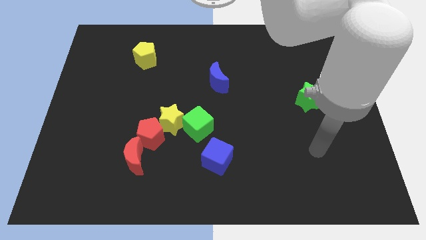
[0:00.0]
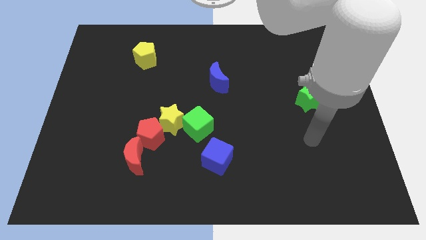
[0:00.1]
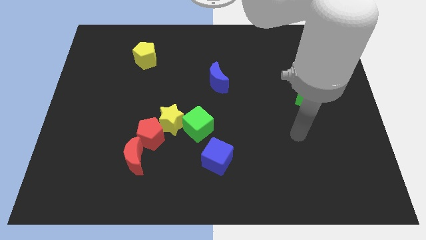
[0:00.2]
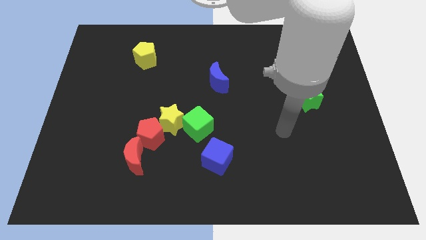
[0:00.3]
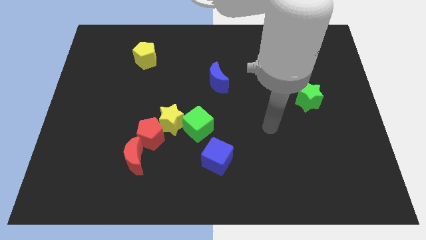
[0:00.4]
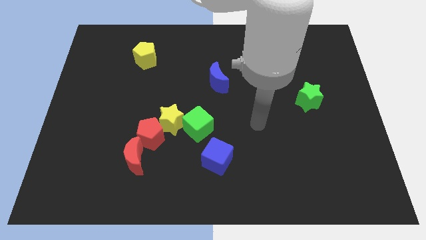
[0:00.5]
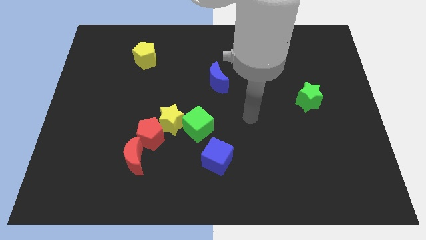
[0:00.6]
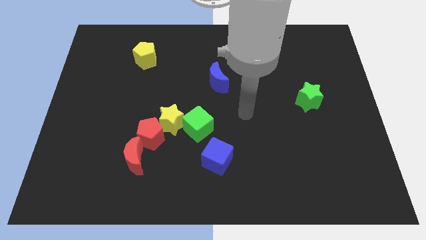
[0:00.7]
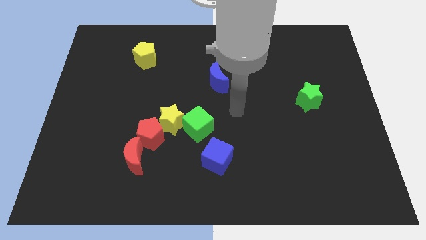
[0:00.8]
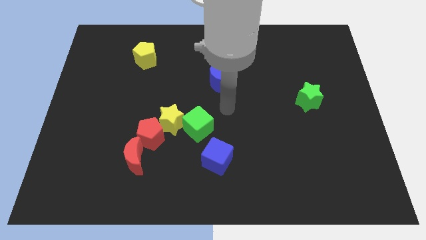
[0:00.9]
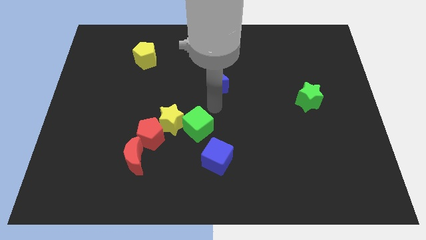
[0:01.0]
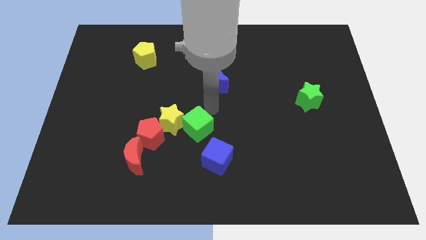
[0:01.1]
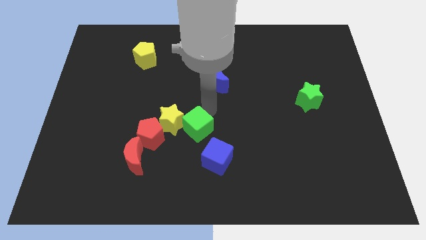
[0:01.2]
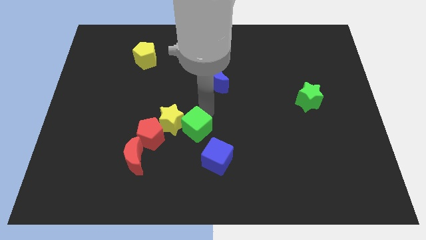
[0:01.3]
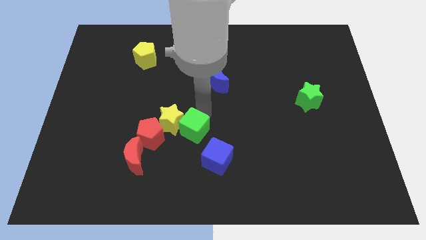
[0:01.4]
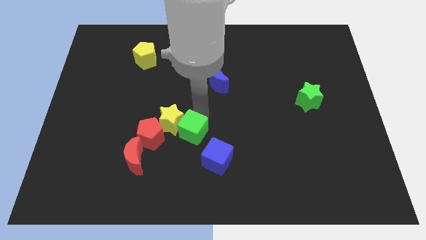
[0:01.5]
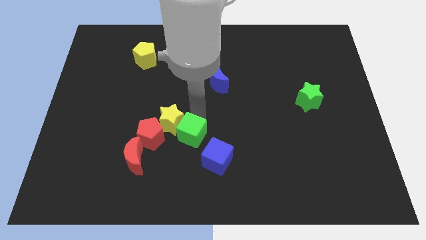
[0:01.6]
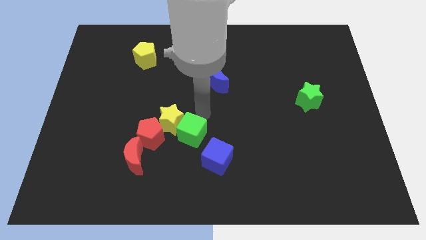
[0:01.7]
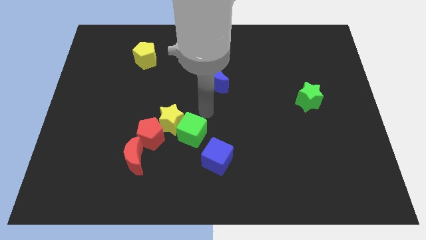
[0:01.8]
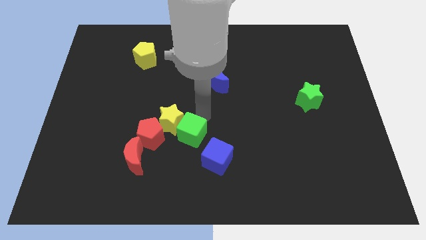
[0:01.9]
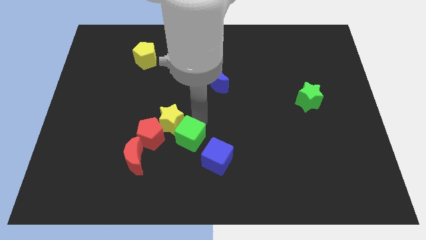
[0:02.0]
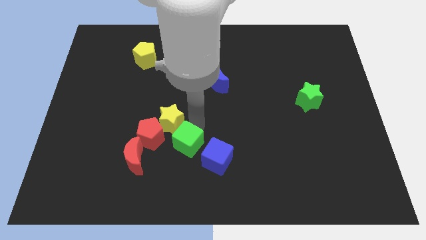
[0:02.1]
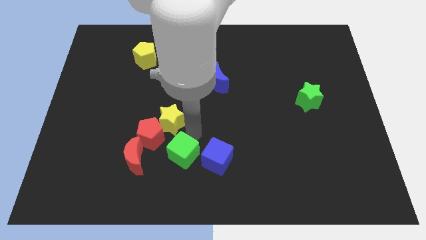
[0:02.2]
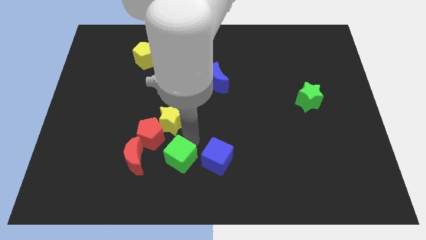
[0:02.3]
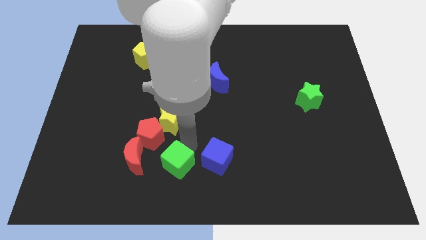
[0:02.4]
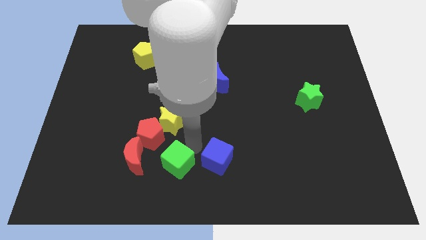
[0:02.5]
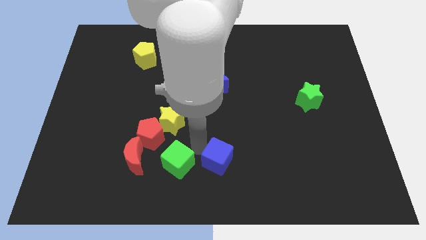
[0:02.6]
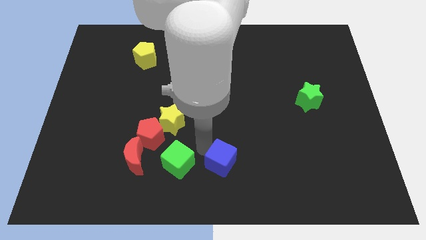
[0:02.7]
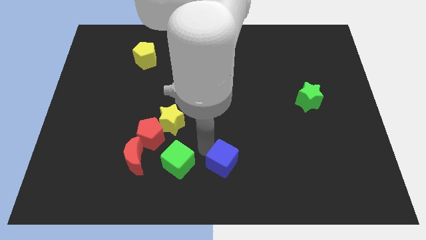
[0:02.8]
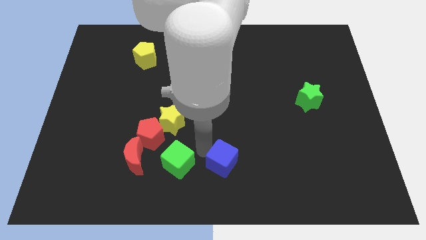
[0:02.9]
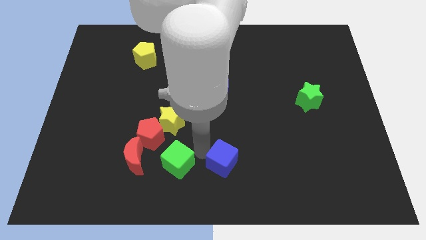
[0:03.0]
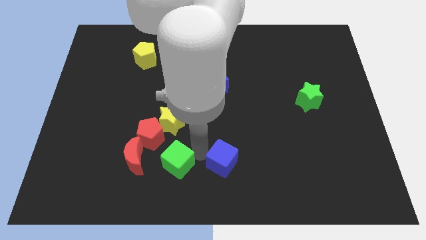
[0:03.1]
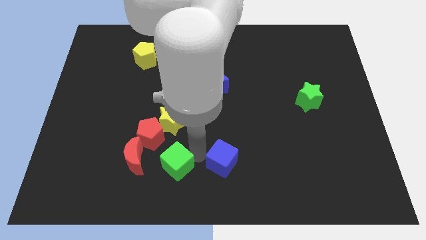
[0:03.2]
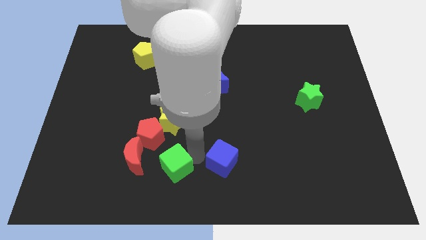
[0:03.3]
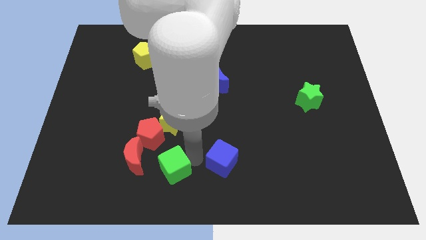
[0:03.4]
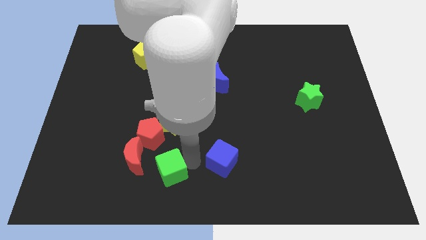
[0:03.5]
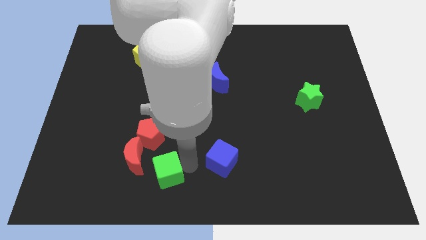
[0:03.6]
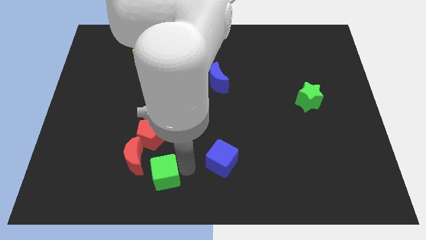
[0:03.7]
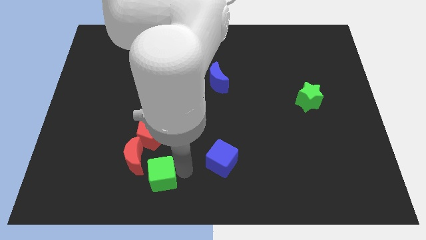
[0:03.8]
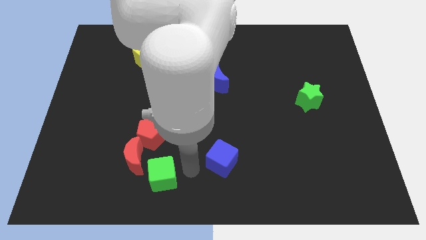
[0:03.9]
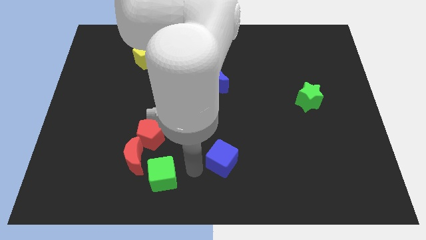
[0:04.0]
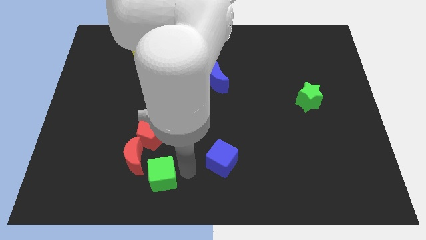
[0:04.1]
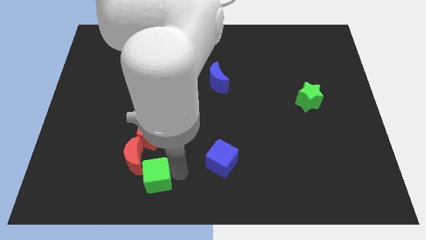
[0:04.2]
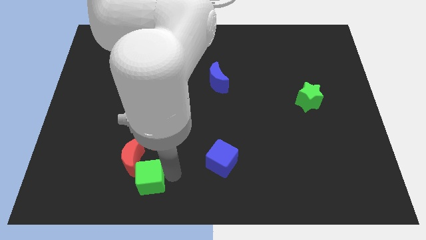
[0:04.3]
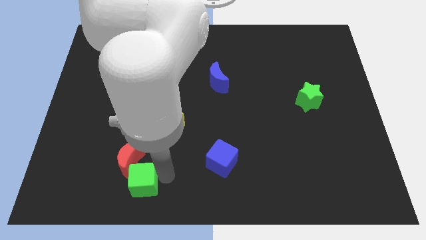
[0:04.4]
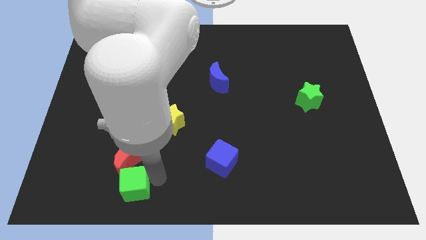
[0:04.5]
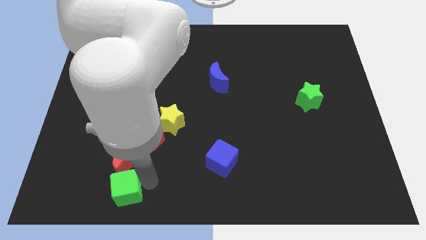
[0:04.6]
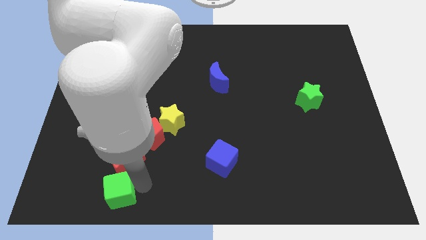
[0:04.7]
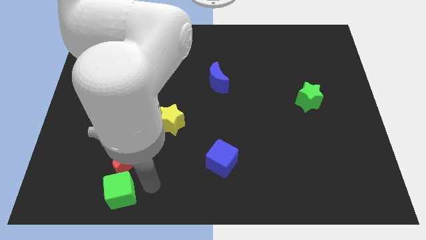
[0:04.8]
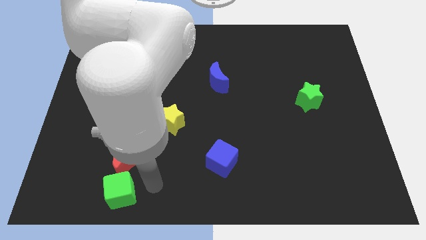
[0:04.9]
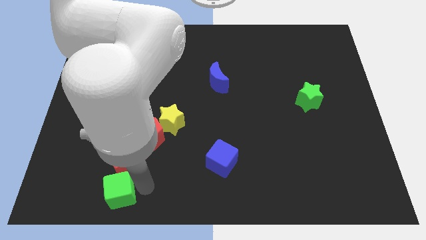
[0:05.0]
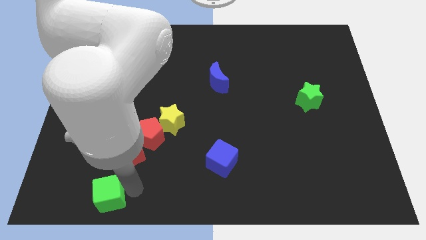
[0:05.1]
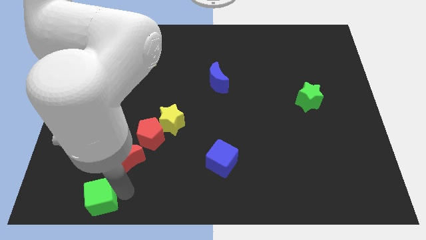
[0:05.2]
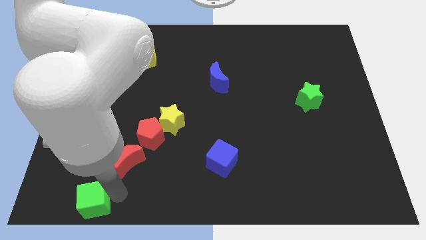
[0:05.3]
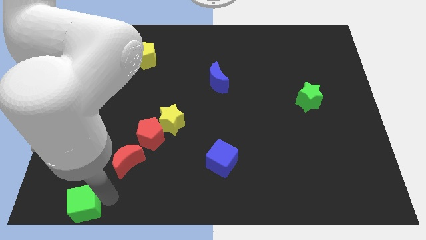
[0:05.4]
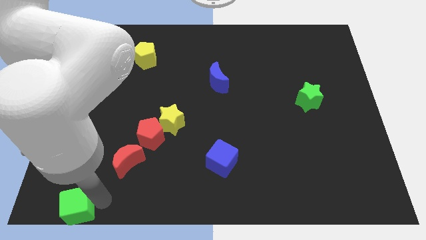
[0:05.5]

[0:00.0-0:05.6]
put the green cube to the bottom left

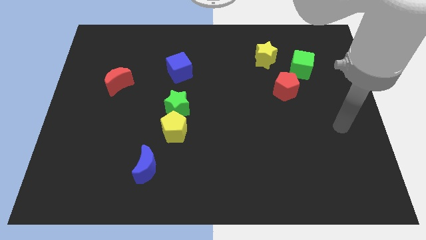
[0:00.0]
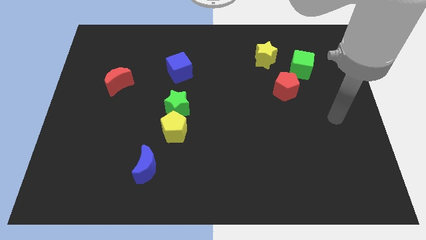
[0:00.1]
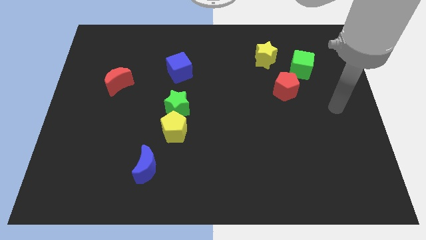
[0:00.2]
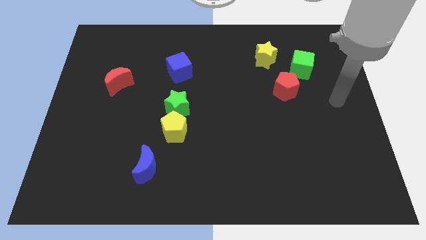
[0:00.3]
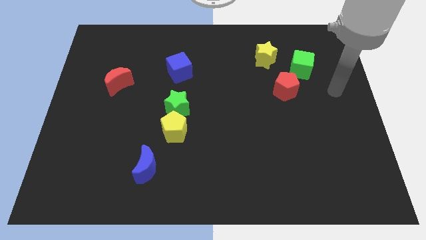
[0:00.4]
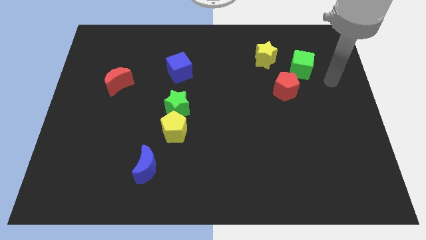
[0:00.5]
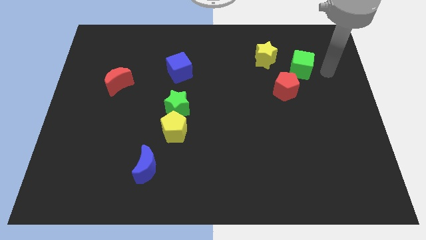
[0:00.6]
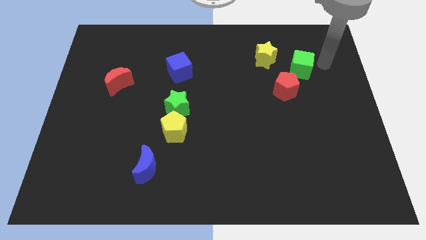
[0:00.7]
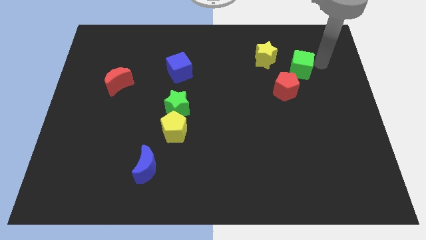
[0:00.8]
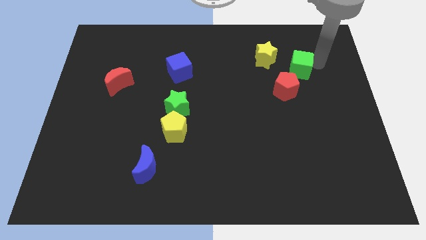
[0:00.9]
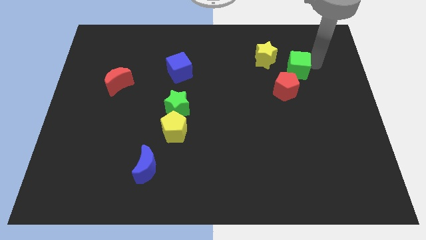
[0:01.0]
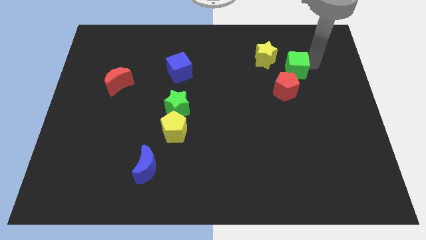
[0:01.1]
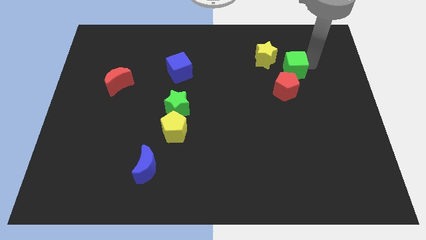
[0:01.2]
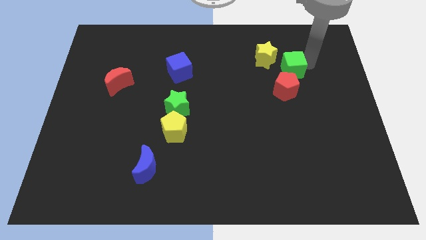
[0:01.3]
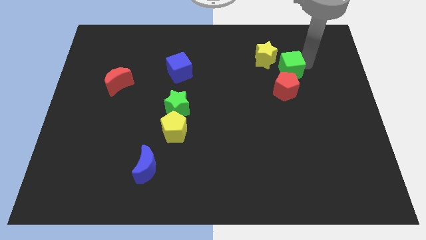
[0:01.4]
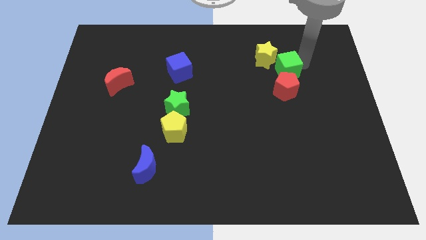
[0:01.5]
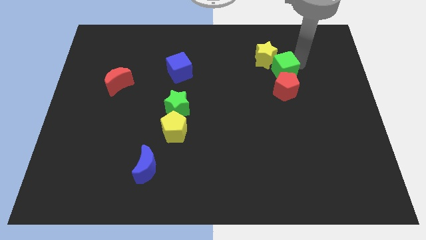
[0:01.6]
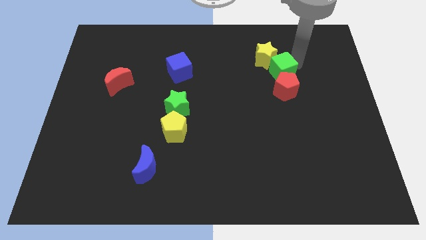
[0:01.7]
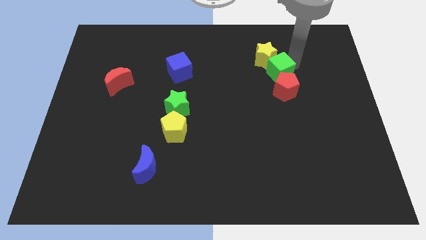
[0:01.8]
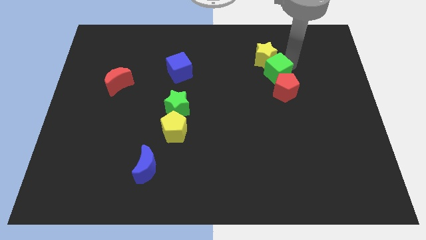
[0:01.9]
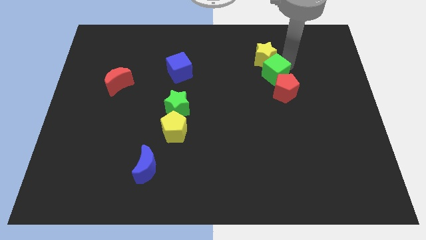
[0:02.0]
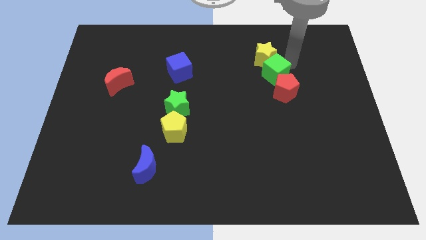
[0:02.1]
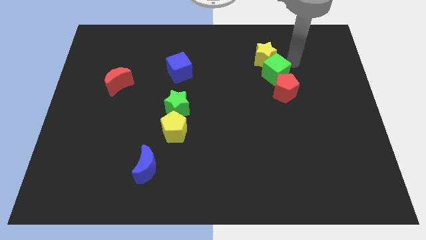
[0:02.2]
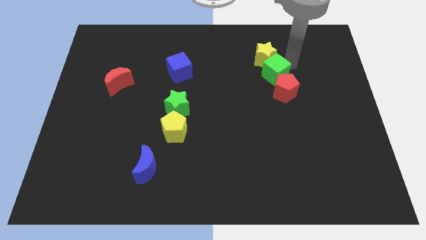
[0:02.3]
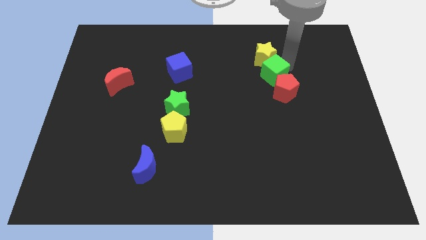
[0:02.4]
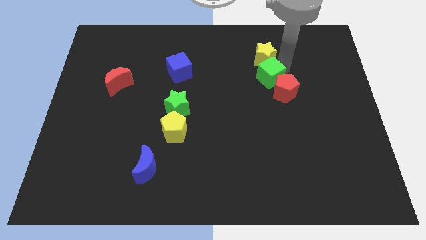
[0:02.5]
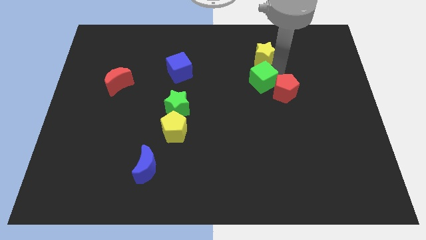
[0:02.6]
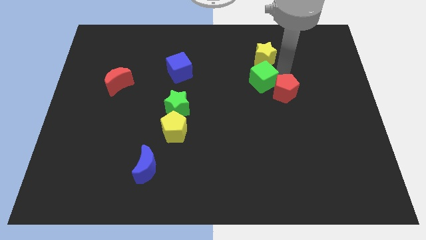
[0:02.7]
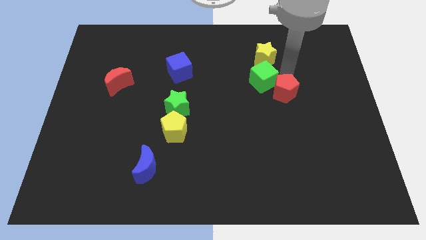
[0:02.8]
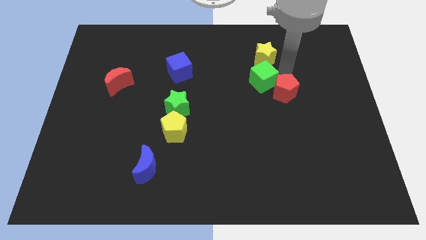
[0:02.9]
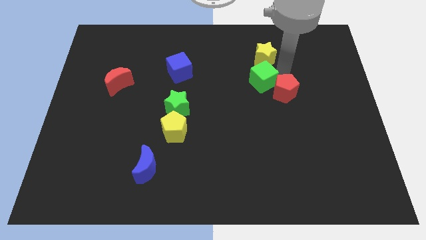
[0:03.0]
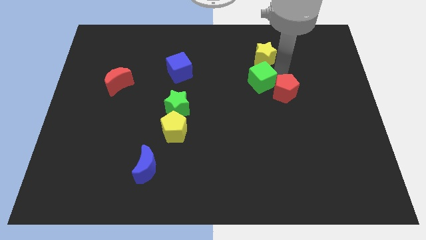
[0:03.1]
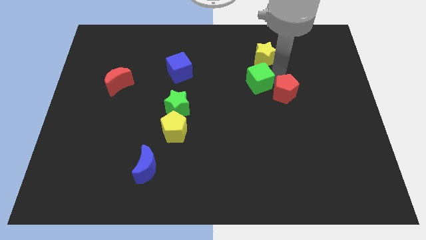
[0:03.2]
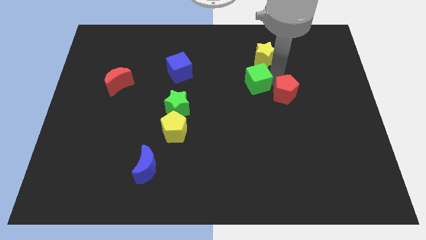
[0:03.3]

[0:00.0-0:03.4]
move the green cube to the middle
